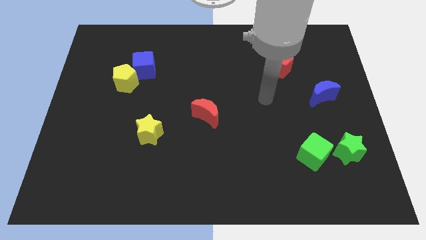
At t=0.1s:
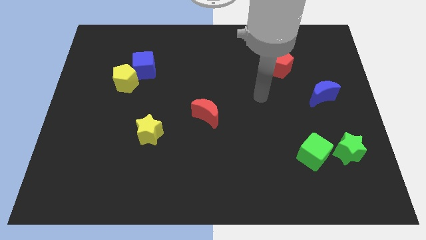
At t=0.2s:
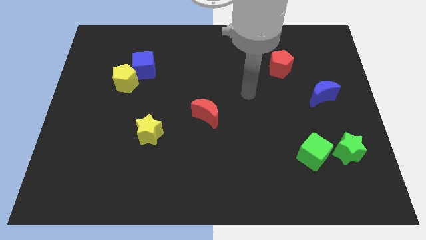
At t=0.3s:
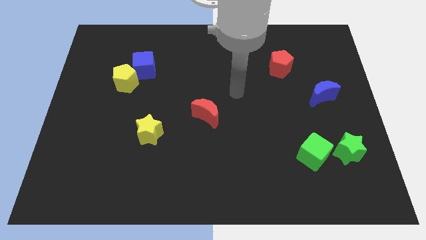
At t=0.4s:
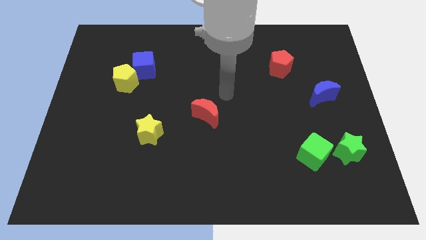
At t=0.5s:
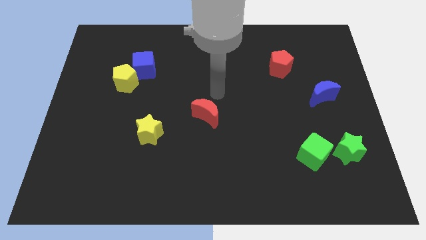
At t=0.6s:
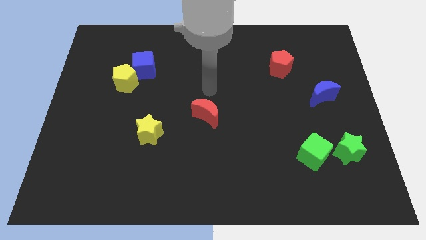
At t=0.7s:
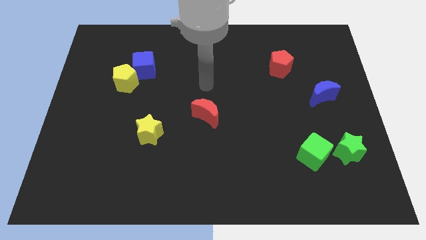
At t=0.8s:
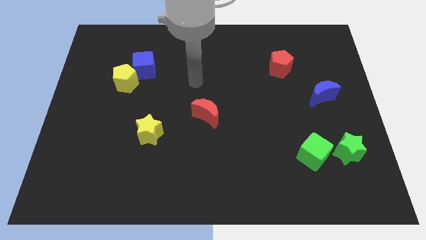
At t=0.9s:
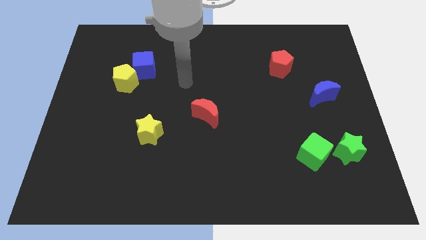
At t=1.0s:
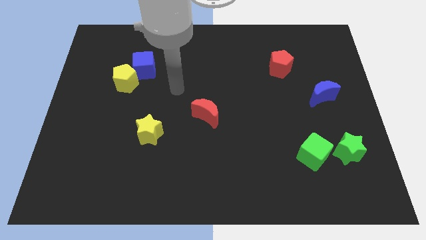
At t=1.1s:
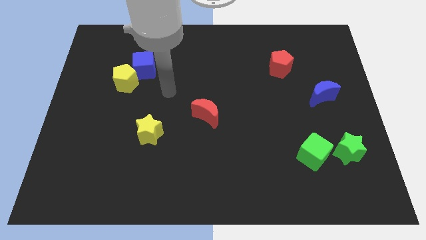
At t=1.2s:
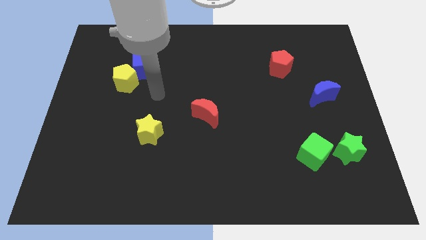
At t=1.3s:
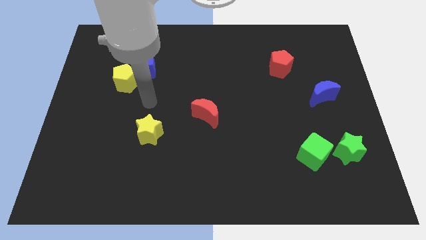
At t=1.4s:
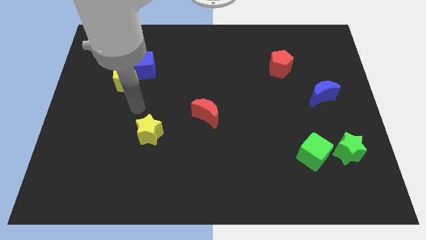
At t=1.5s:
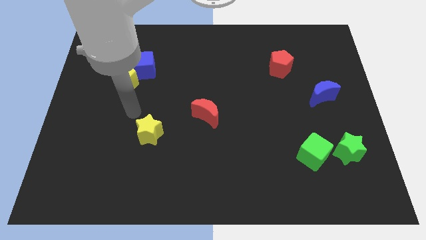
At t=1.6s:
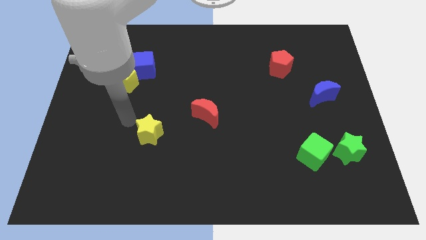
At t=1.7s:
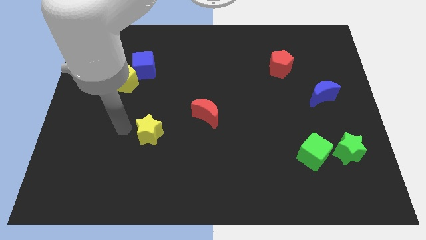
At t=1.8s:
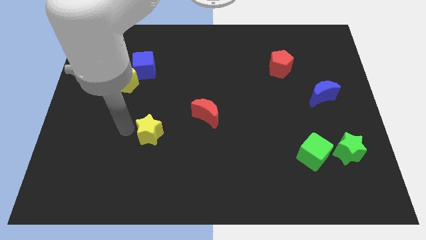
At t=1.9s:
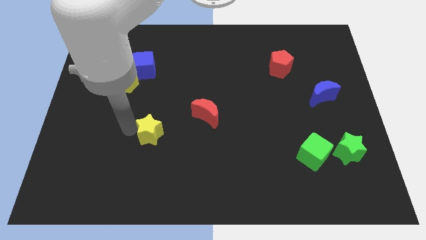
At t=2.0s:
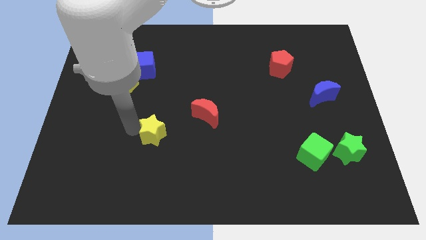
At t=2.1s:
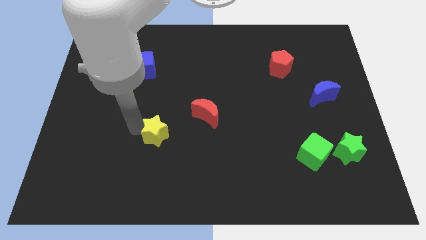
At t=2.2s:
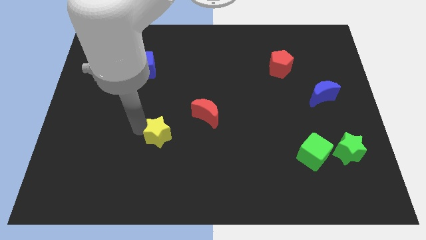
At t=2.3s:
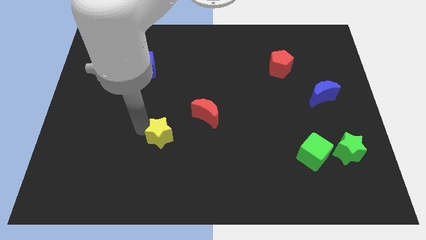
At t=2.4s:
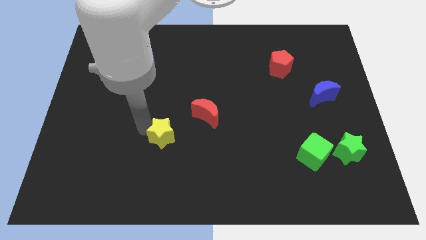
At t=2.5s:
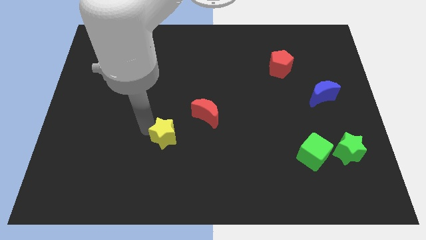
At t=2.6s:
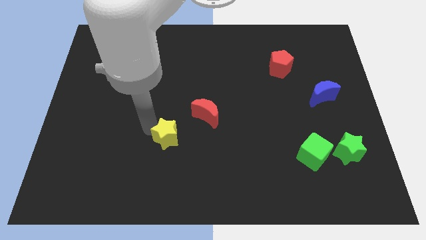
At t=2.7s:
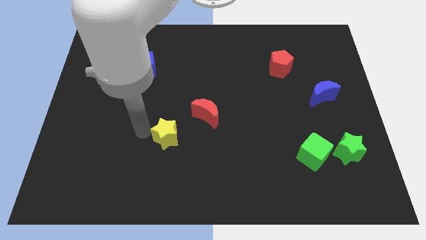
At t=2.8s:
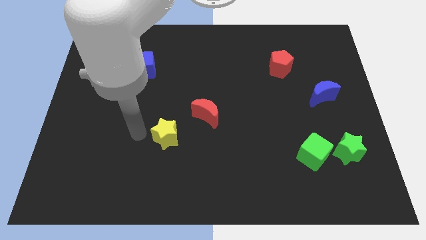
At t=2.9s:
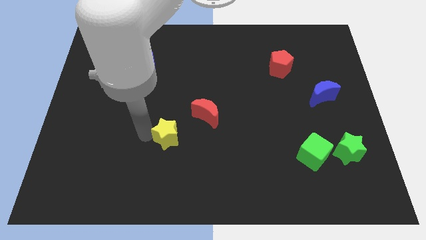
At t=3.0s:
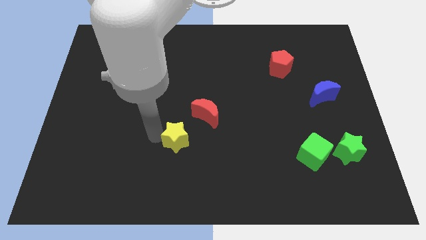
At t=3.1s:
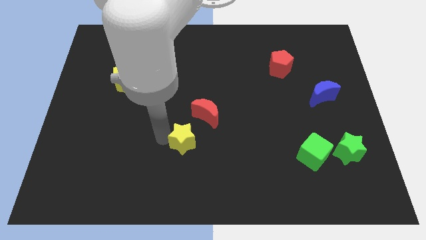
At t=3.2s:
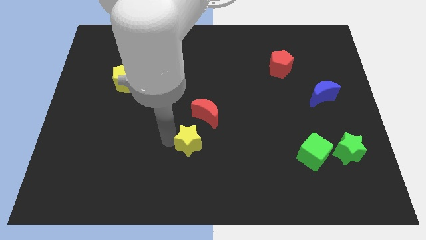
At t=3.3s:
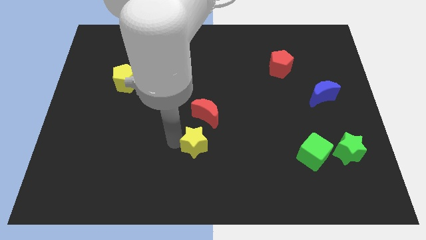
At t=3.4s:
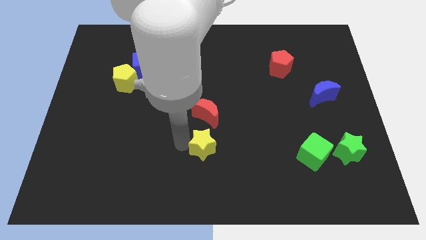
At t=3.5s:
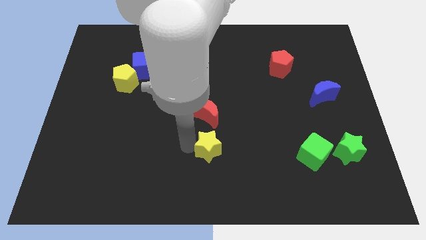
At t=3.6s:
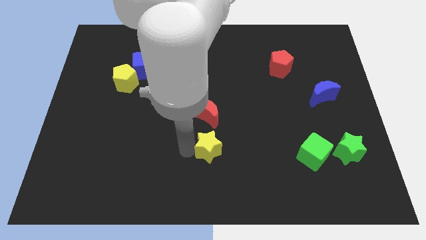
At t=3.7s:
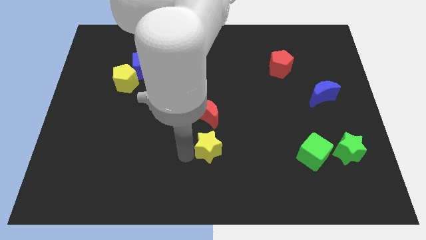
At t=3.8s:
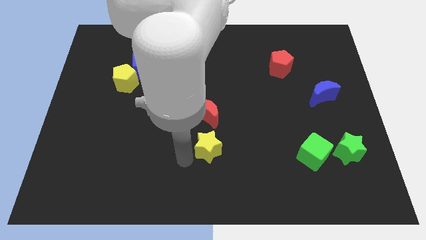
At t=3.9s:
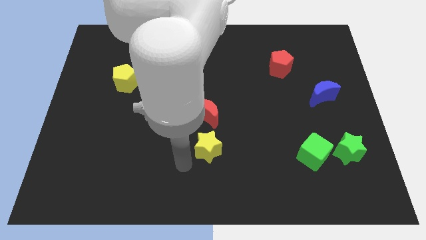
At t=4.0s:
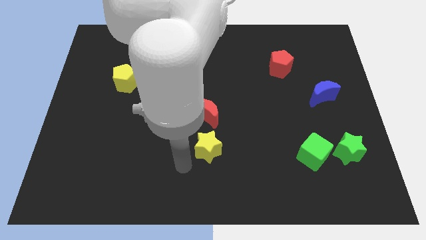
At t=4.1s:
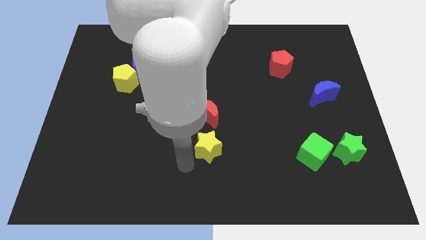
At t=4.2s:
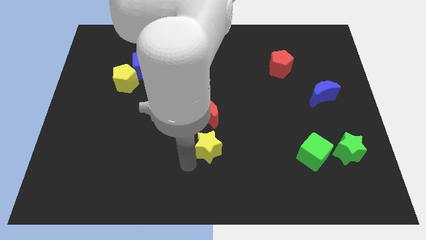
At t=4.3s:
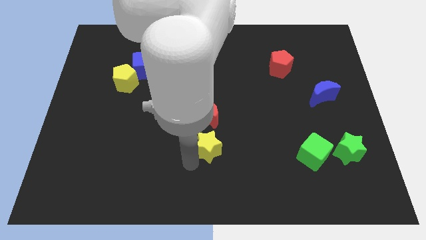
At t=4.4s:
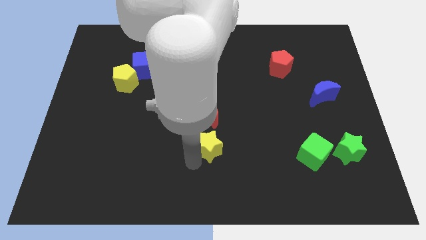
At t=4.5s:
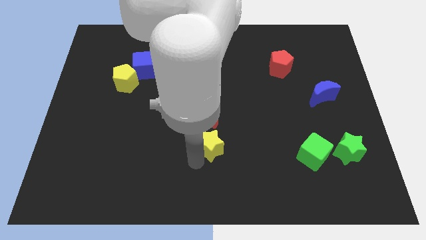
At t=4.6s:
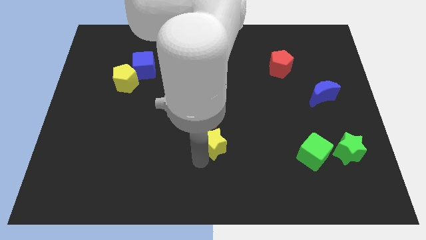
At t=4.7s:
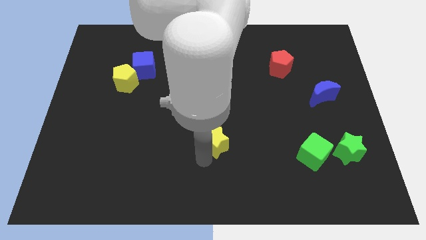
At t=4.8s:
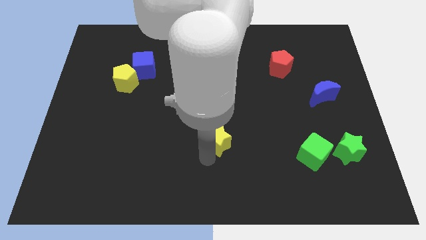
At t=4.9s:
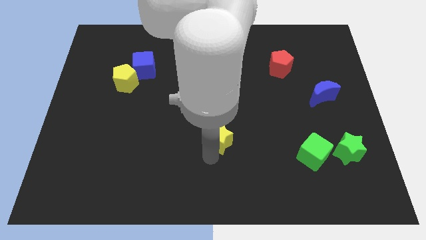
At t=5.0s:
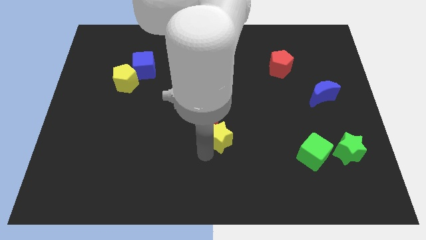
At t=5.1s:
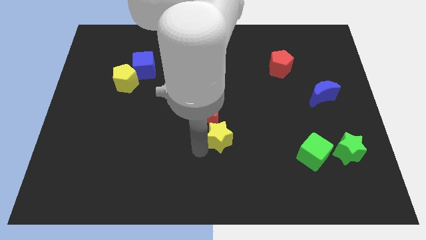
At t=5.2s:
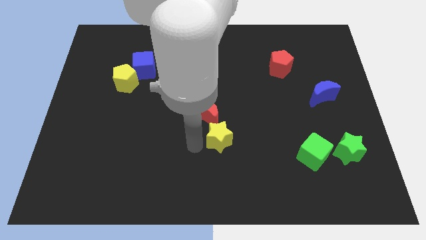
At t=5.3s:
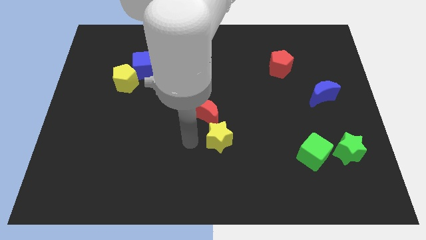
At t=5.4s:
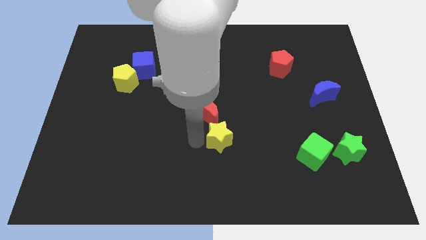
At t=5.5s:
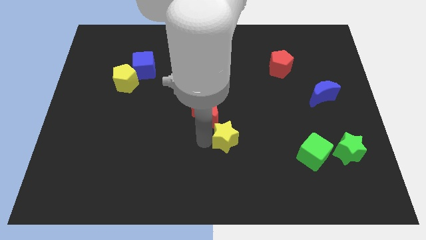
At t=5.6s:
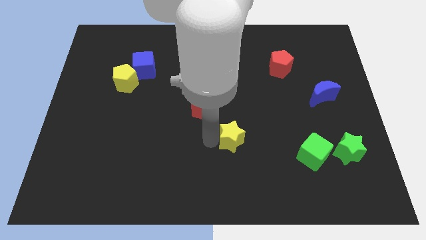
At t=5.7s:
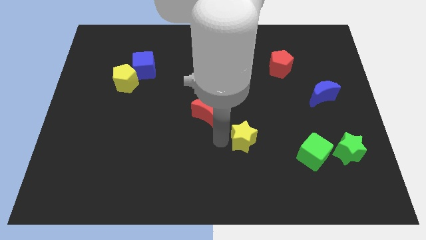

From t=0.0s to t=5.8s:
slide the yellow star to the right

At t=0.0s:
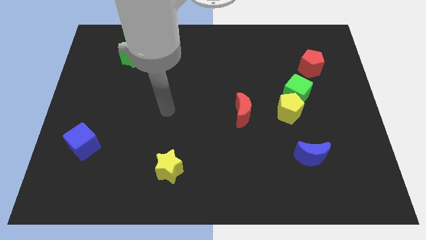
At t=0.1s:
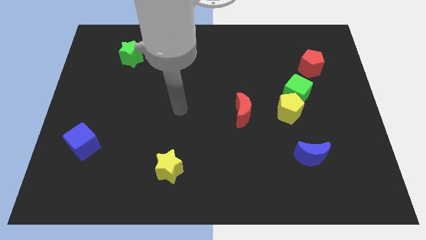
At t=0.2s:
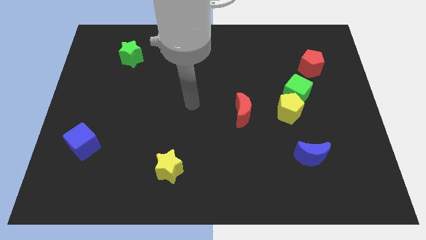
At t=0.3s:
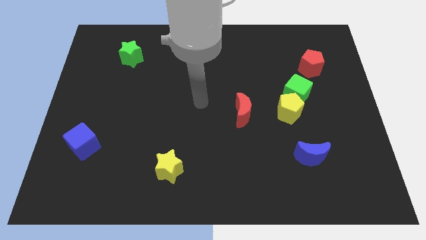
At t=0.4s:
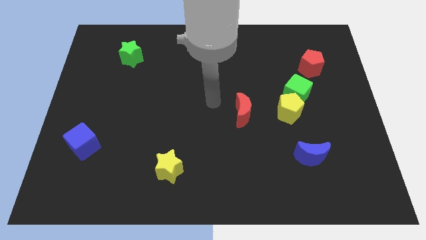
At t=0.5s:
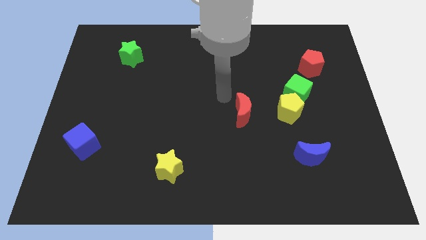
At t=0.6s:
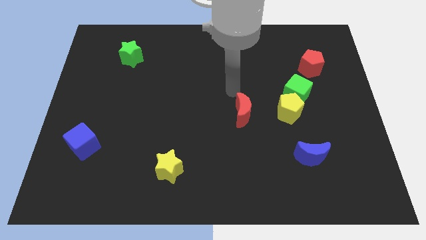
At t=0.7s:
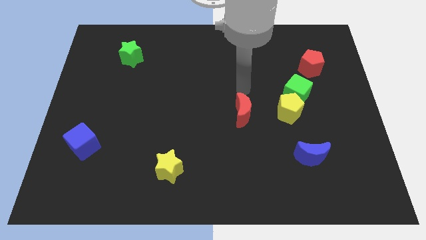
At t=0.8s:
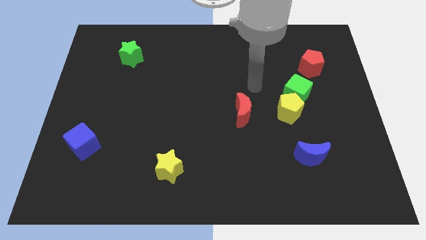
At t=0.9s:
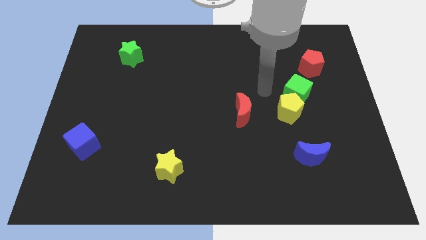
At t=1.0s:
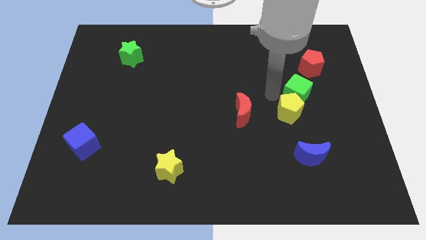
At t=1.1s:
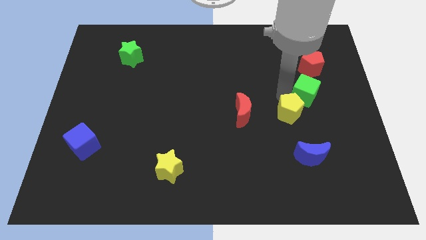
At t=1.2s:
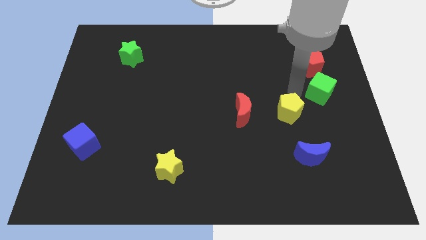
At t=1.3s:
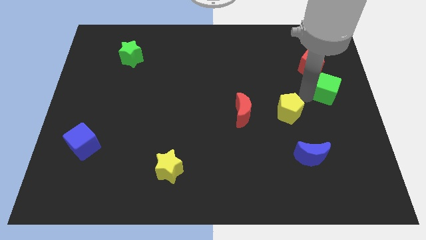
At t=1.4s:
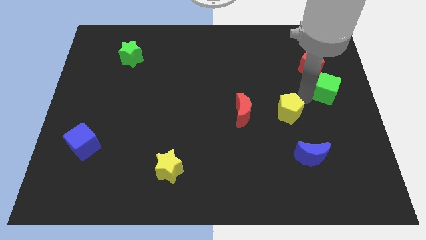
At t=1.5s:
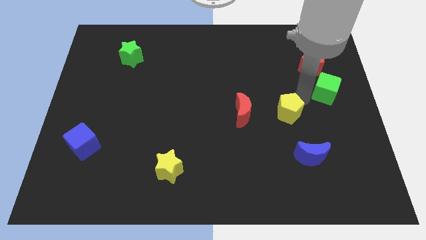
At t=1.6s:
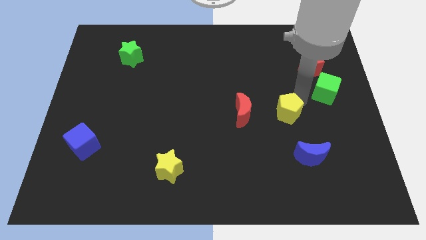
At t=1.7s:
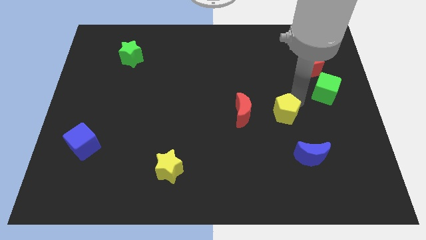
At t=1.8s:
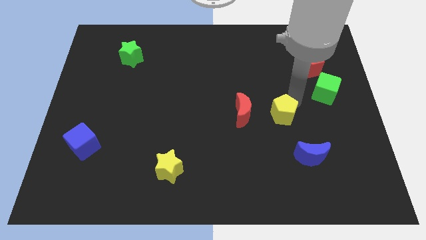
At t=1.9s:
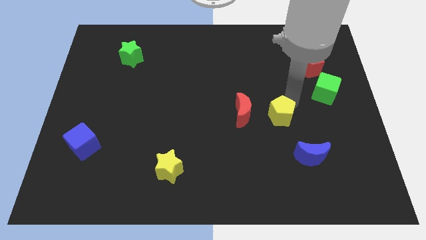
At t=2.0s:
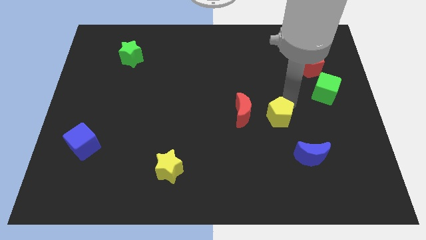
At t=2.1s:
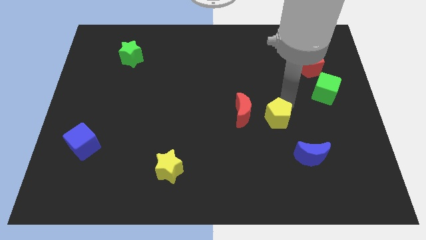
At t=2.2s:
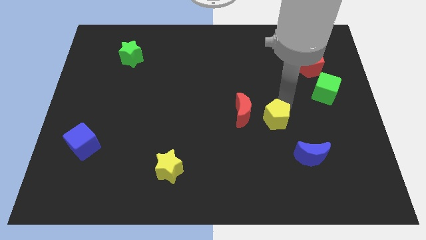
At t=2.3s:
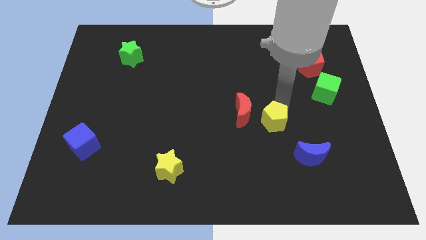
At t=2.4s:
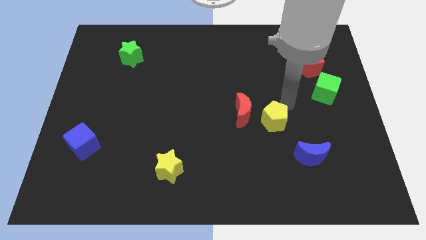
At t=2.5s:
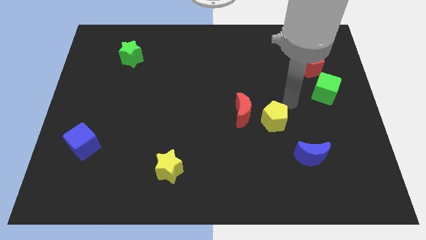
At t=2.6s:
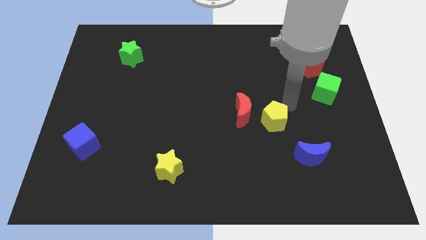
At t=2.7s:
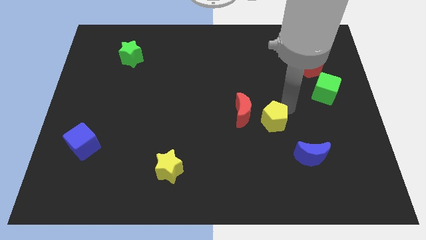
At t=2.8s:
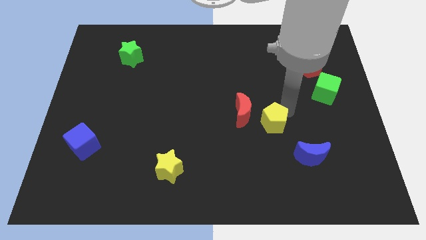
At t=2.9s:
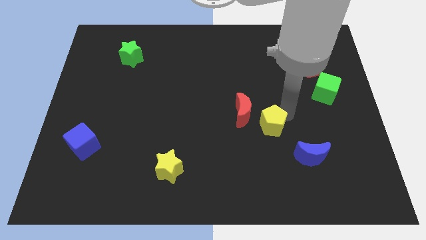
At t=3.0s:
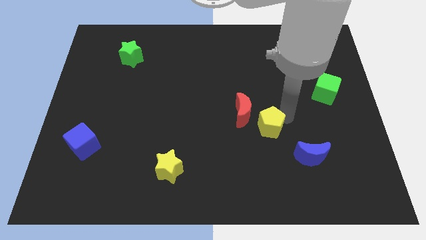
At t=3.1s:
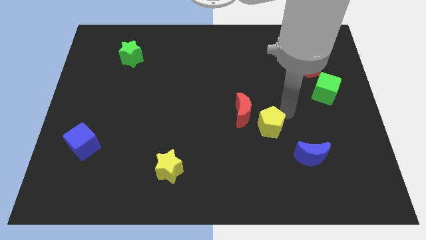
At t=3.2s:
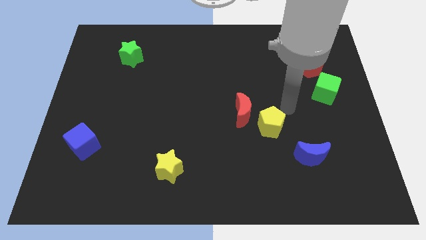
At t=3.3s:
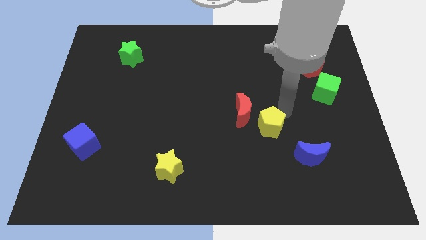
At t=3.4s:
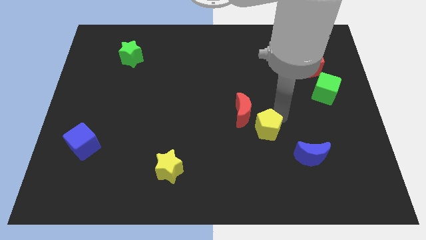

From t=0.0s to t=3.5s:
move the yellow pentagon a bit downwards and left
